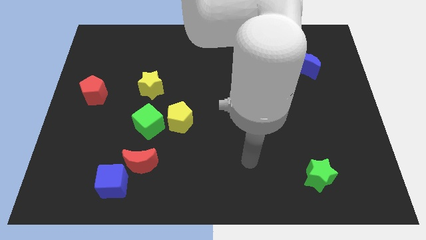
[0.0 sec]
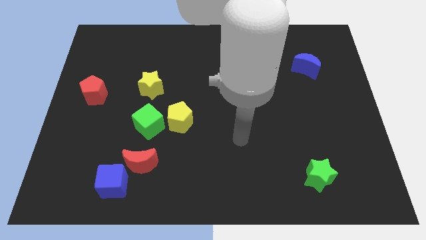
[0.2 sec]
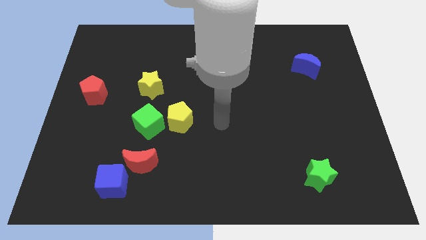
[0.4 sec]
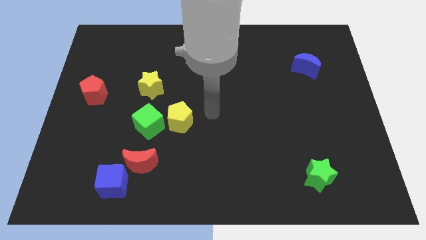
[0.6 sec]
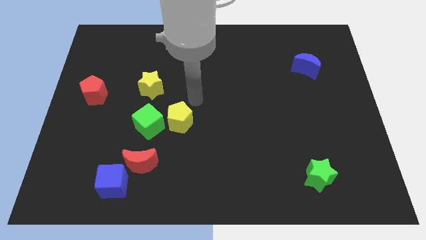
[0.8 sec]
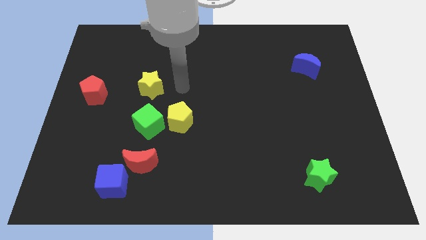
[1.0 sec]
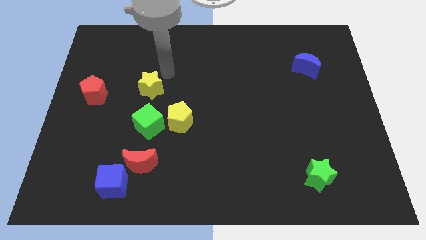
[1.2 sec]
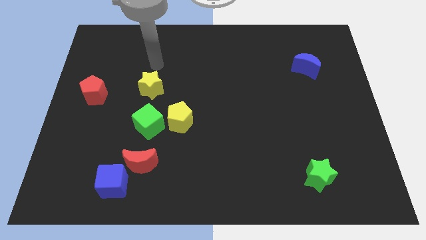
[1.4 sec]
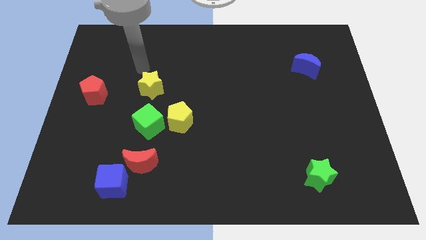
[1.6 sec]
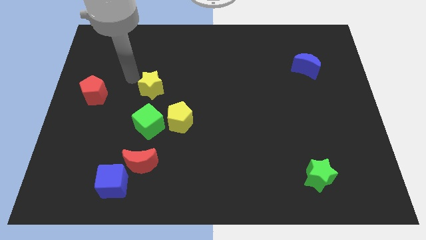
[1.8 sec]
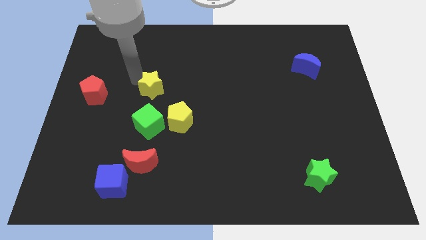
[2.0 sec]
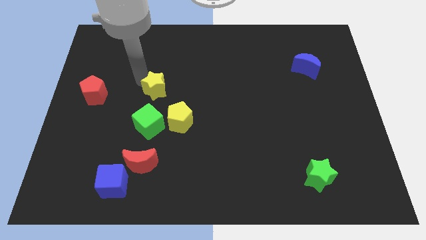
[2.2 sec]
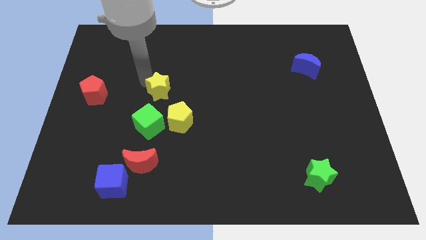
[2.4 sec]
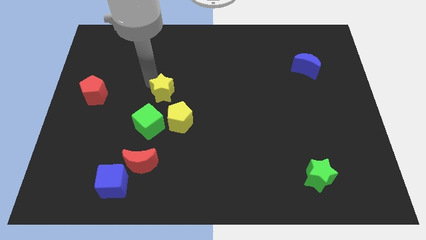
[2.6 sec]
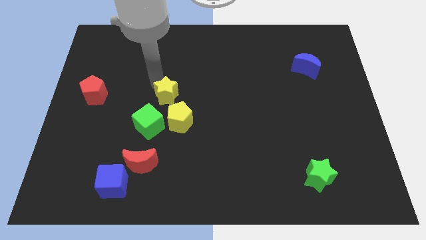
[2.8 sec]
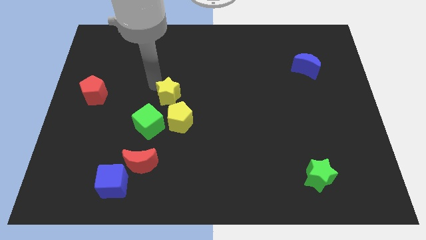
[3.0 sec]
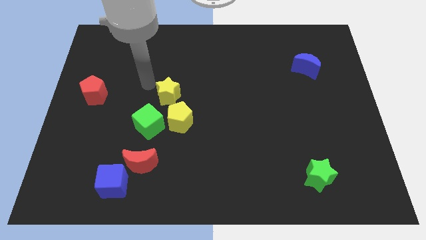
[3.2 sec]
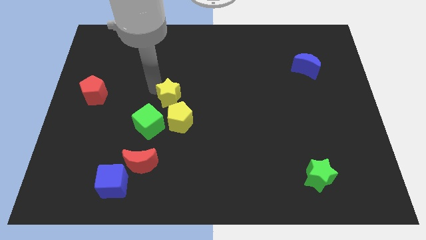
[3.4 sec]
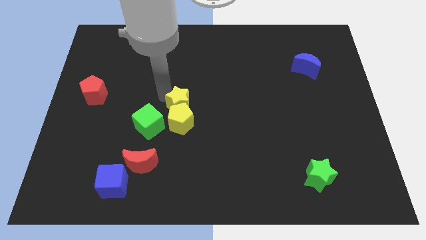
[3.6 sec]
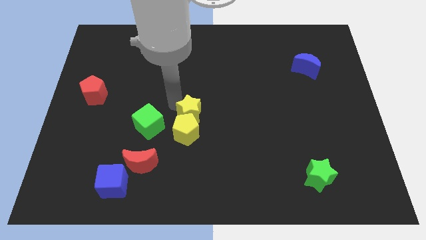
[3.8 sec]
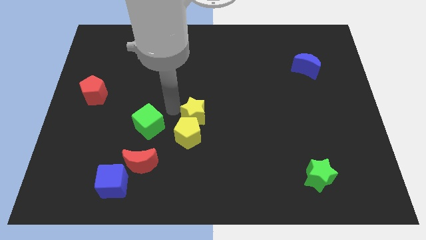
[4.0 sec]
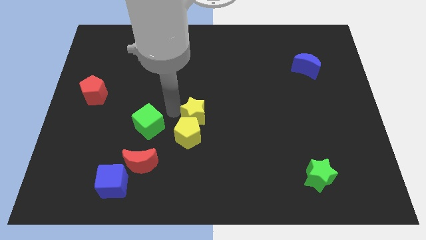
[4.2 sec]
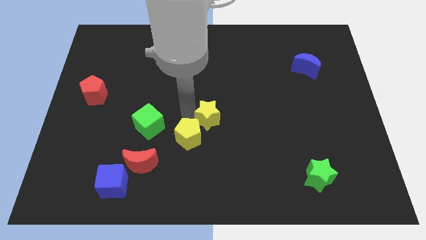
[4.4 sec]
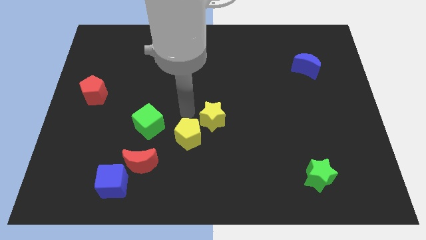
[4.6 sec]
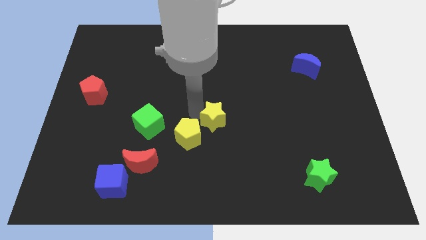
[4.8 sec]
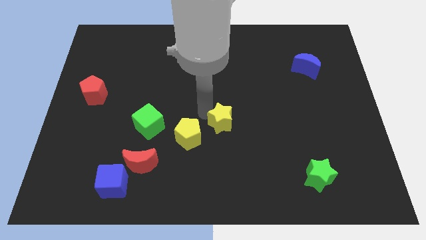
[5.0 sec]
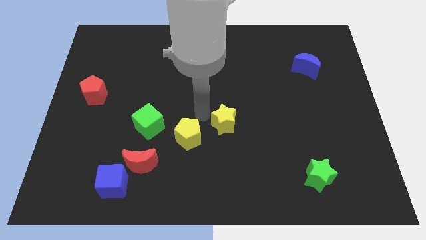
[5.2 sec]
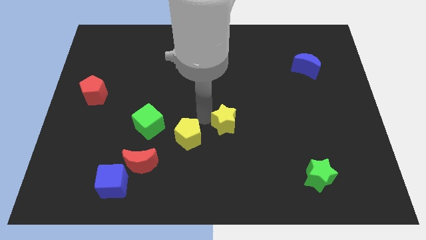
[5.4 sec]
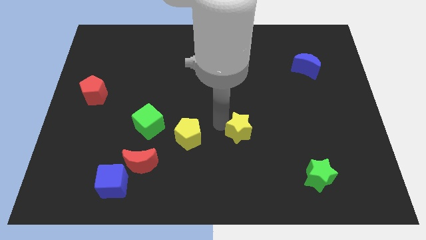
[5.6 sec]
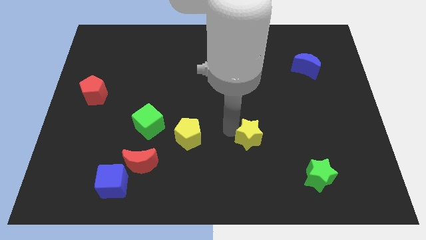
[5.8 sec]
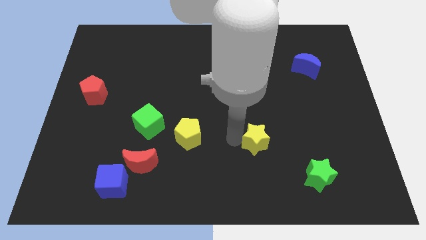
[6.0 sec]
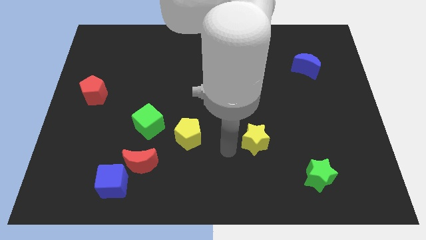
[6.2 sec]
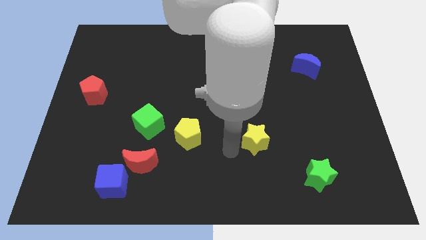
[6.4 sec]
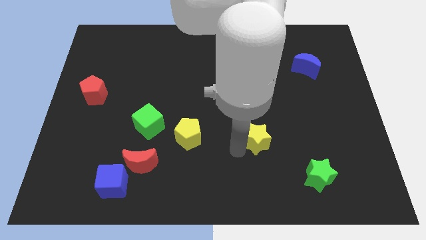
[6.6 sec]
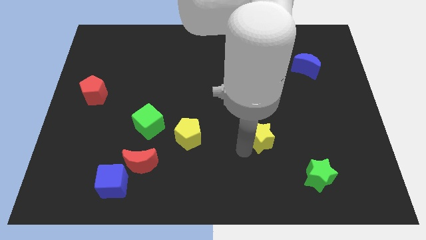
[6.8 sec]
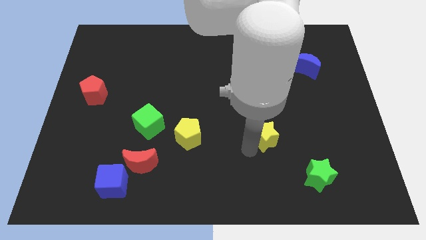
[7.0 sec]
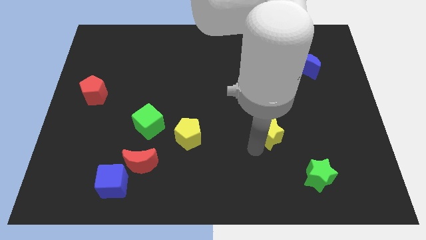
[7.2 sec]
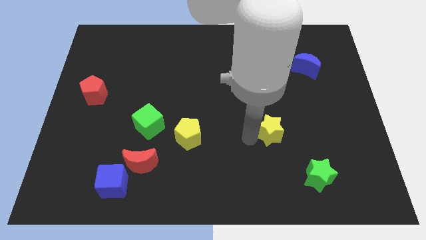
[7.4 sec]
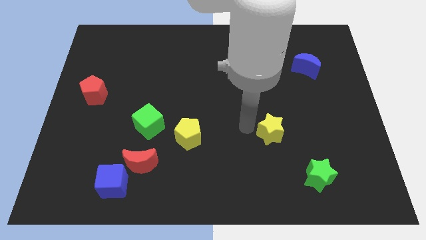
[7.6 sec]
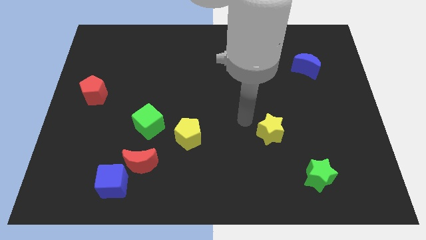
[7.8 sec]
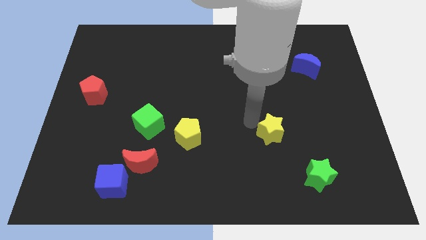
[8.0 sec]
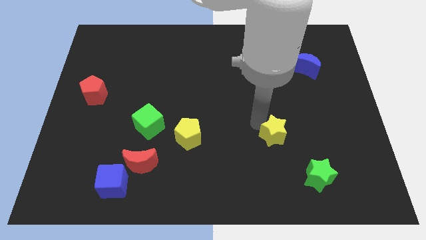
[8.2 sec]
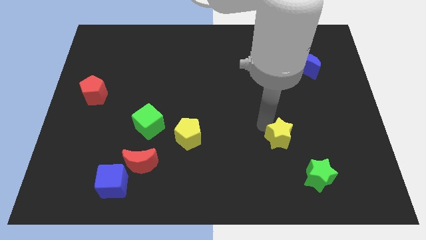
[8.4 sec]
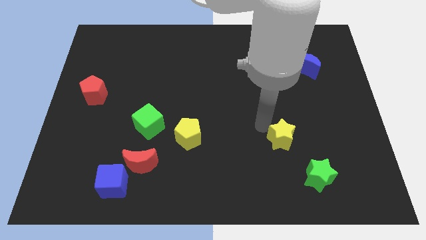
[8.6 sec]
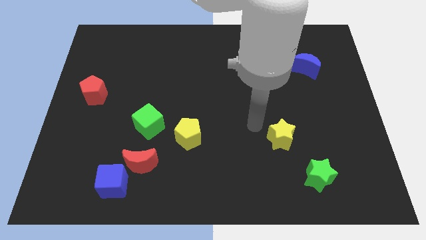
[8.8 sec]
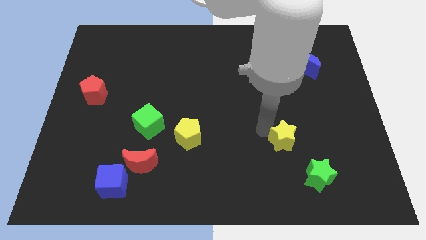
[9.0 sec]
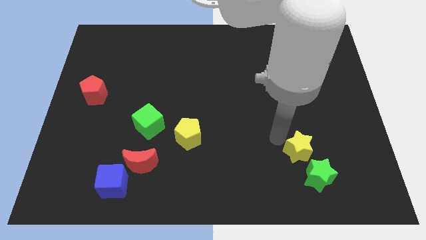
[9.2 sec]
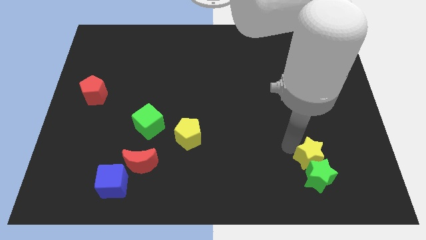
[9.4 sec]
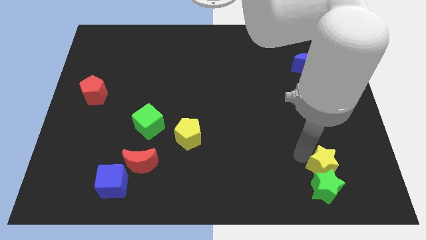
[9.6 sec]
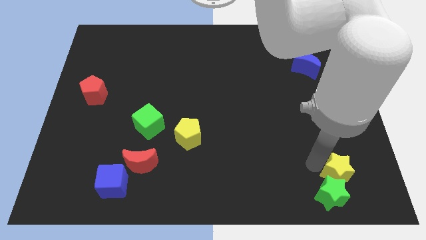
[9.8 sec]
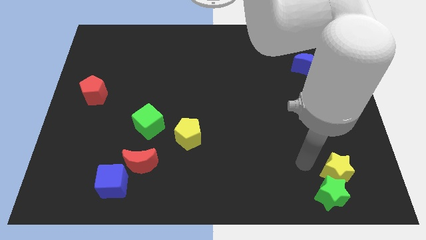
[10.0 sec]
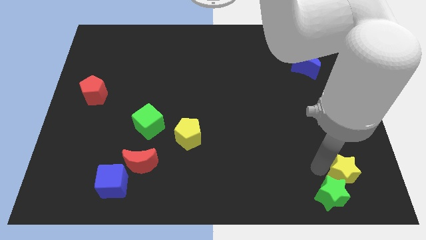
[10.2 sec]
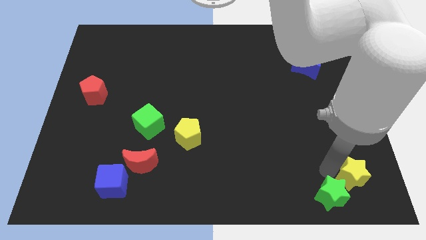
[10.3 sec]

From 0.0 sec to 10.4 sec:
slide the yellow star to the bottom right
